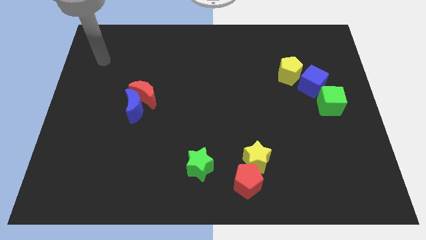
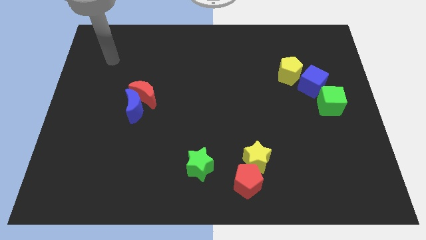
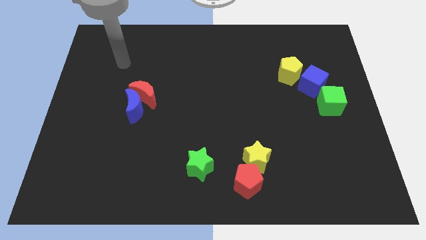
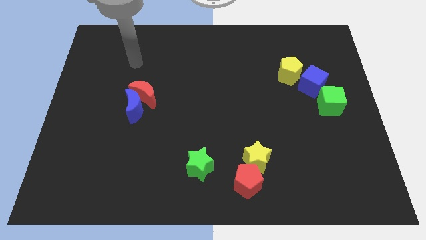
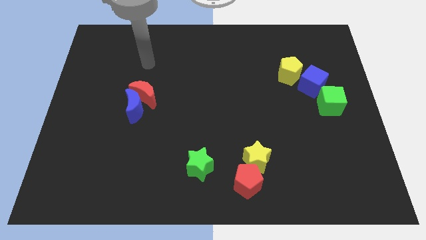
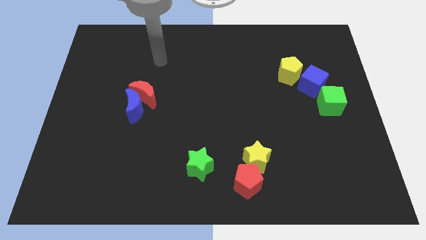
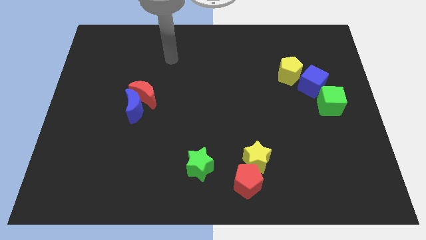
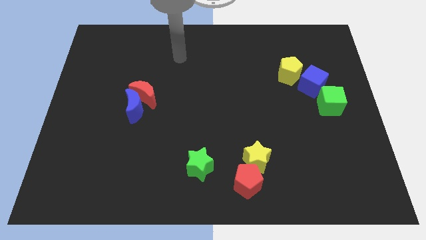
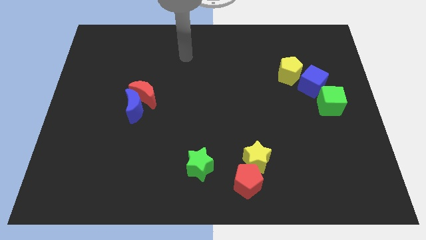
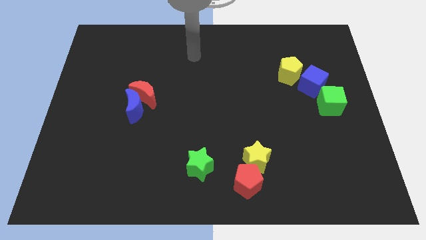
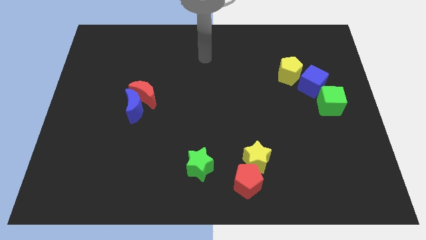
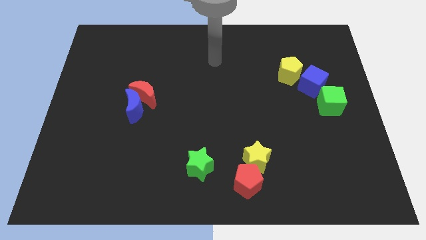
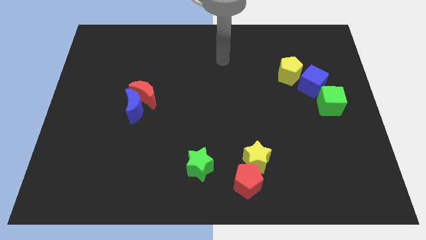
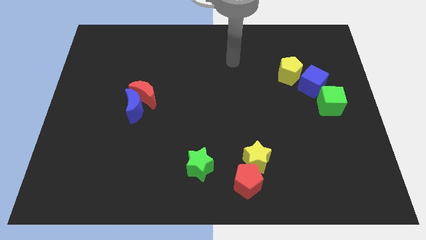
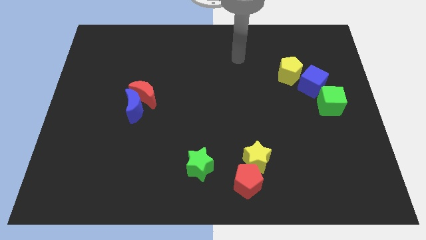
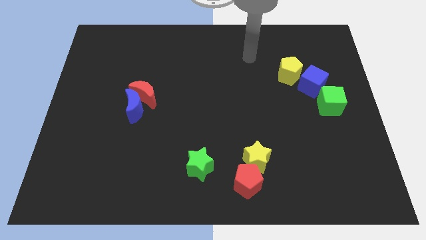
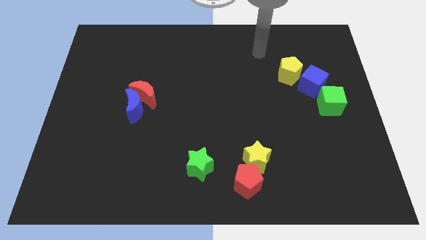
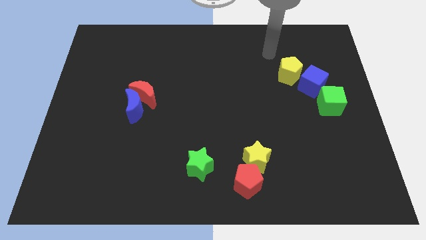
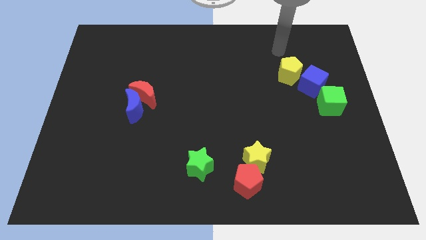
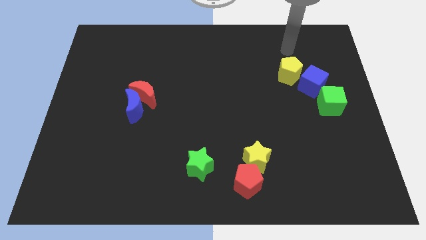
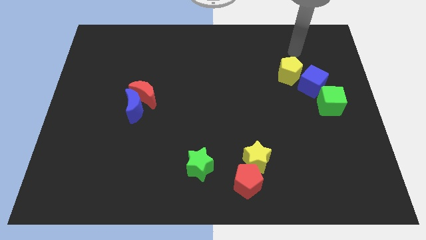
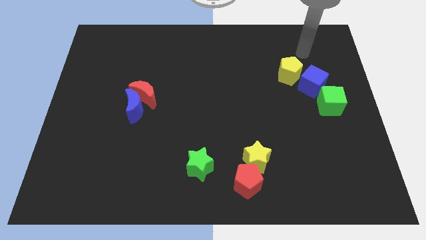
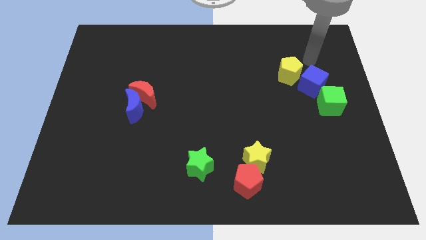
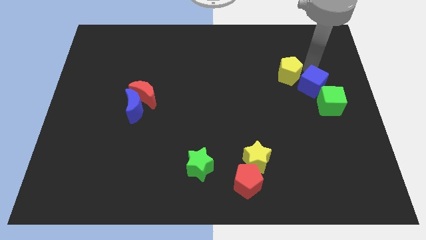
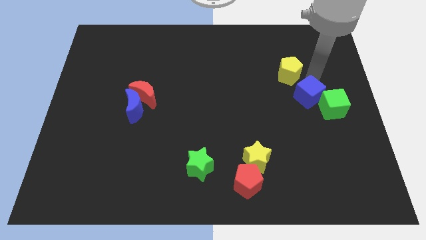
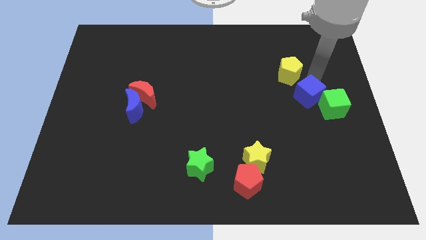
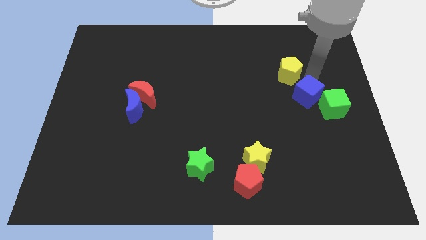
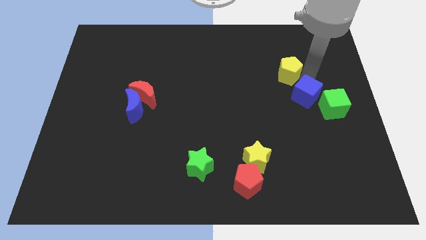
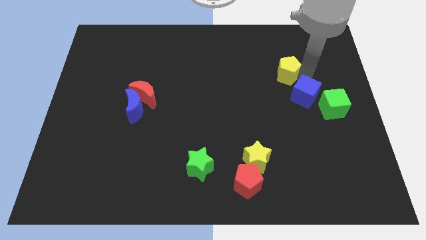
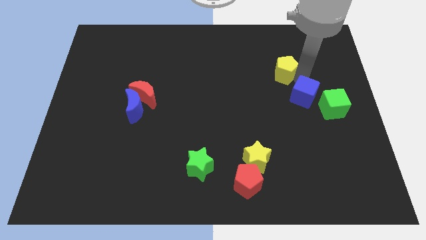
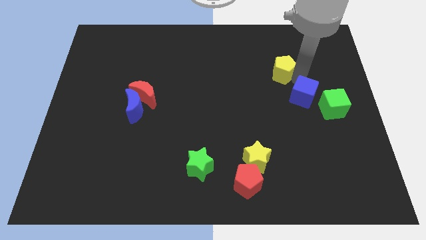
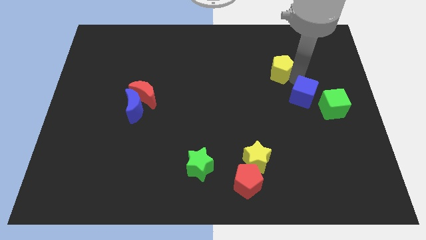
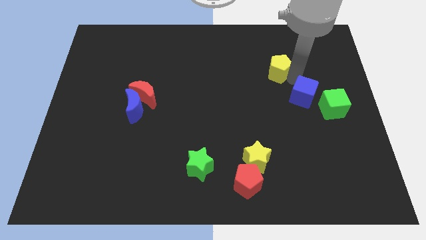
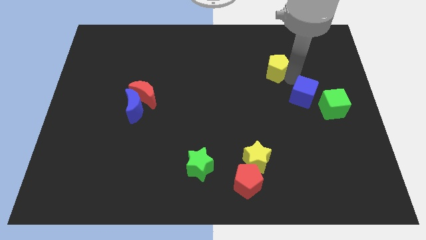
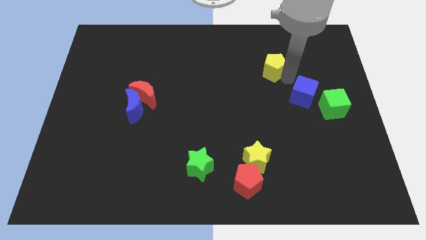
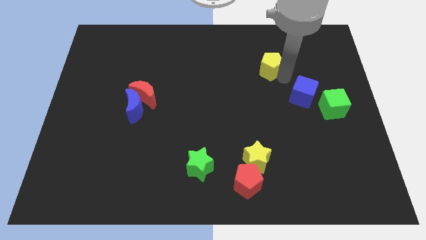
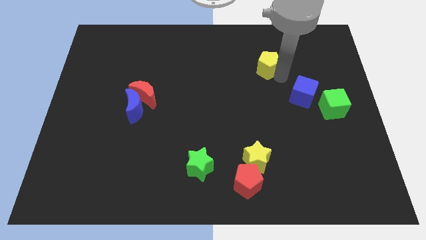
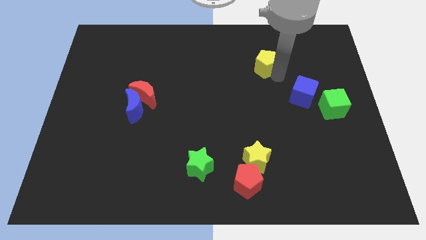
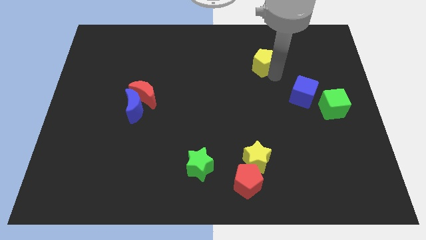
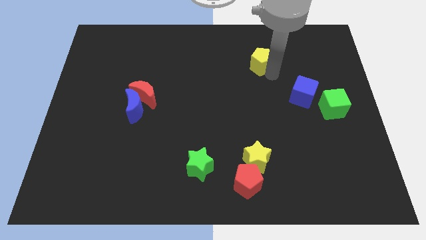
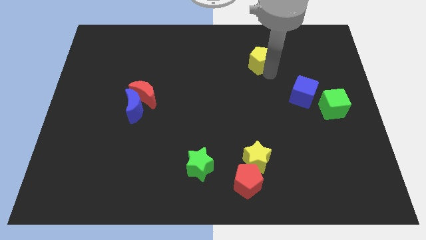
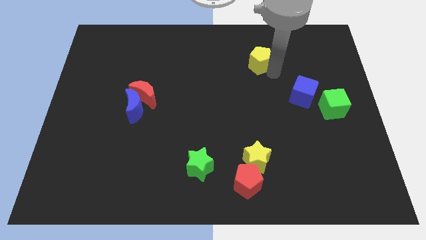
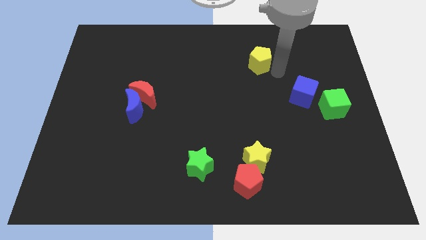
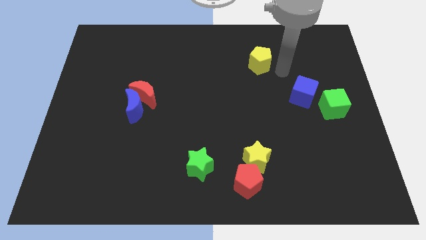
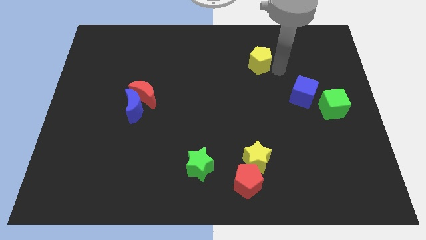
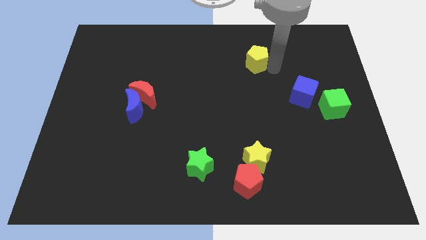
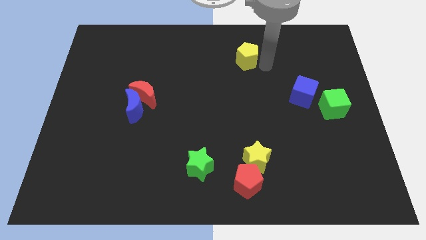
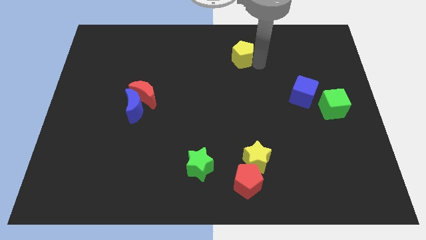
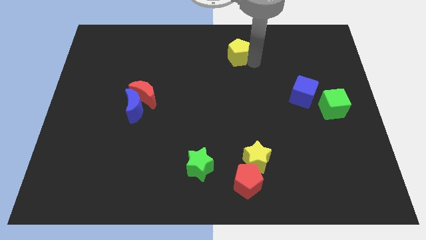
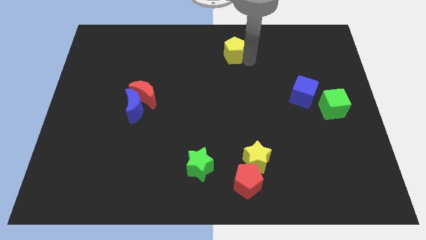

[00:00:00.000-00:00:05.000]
push the yellow pentagon to the top
